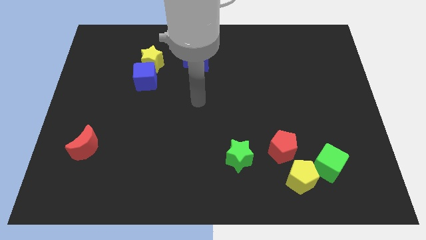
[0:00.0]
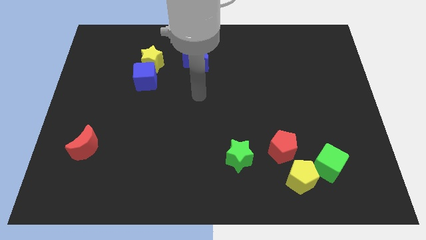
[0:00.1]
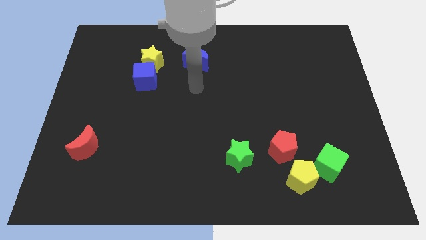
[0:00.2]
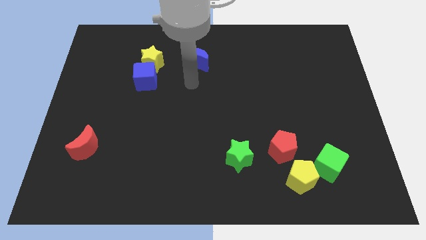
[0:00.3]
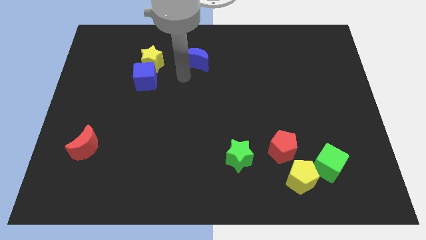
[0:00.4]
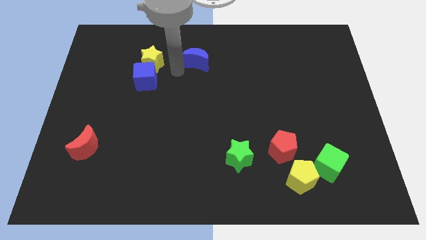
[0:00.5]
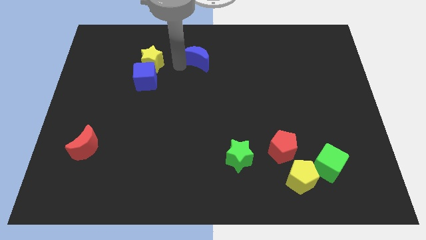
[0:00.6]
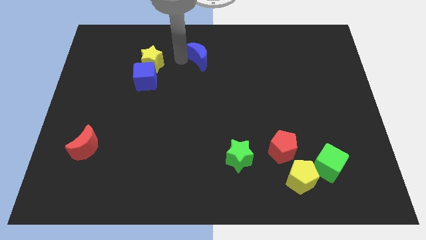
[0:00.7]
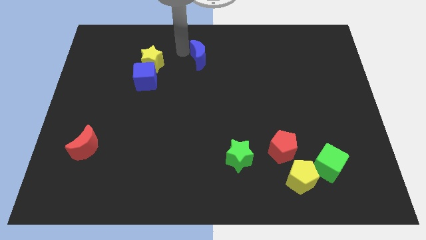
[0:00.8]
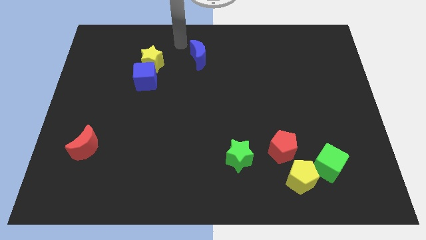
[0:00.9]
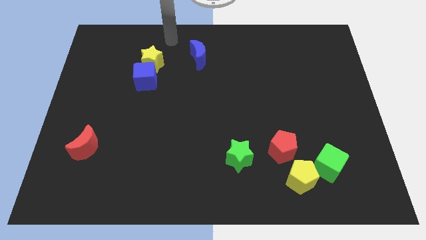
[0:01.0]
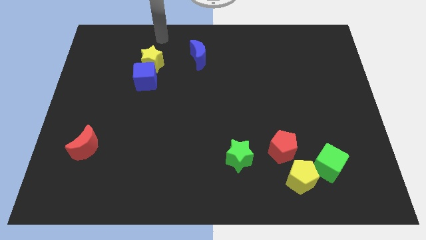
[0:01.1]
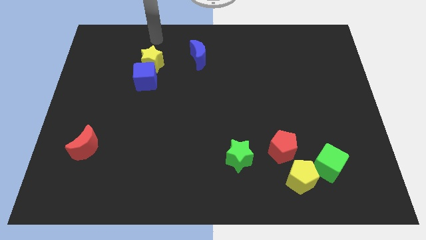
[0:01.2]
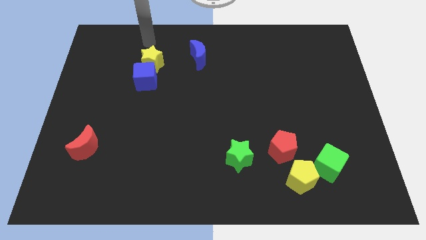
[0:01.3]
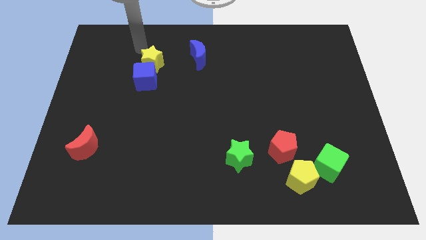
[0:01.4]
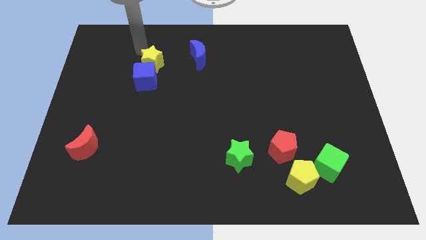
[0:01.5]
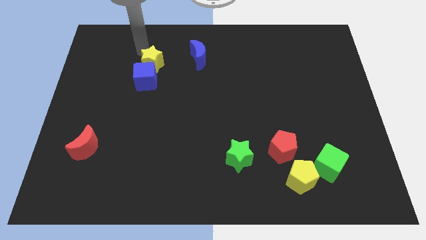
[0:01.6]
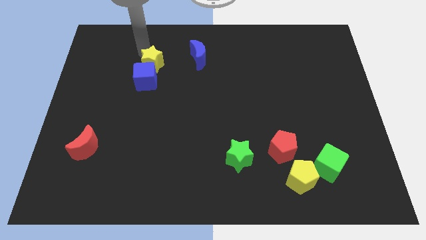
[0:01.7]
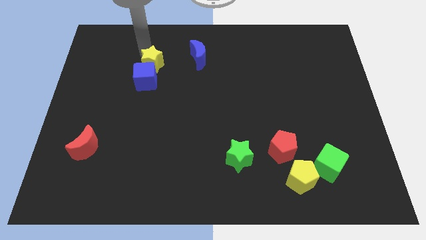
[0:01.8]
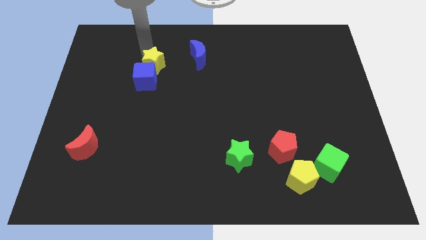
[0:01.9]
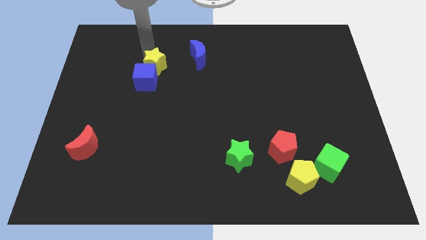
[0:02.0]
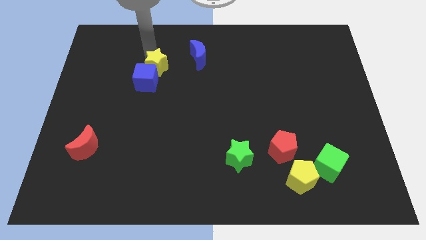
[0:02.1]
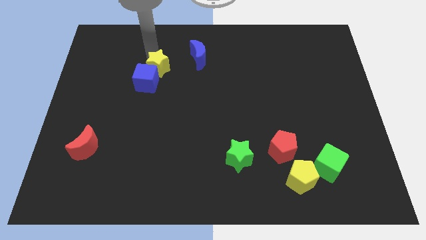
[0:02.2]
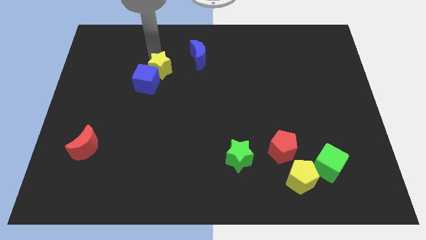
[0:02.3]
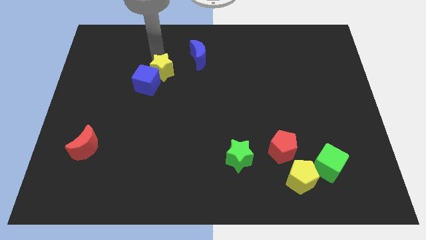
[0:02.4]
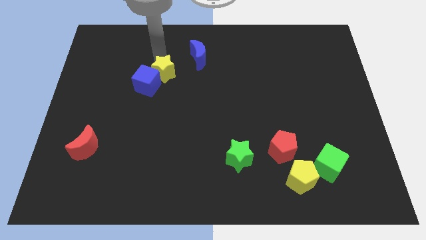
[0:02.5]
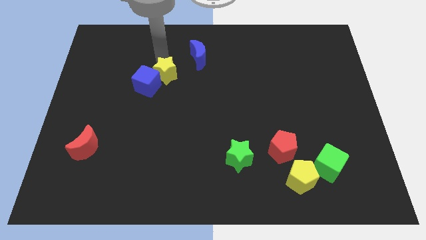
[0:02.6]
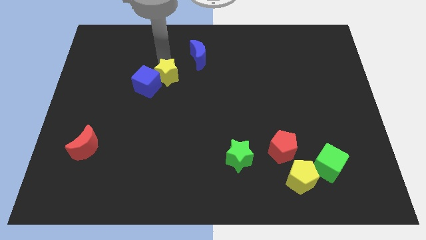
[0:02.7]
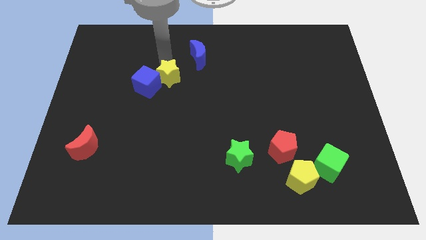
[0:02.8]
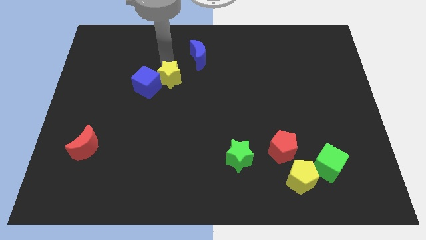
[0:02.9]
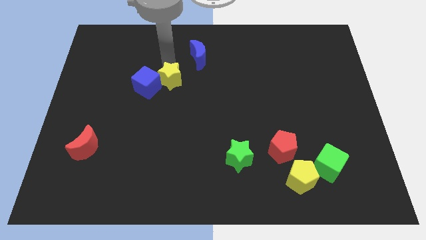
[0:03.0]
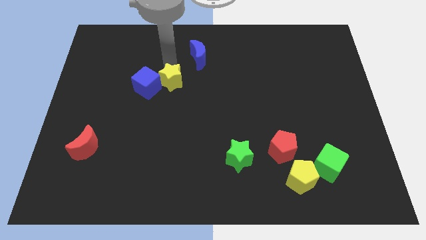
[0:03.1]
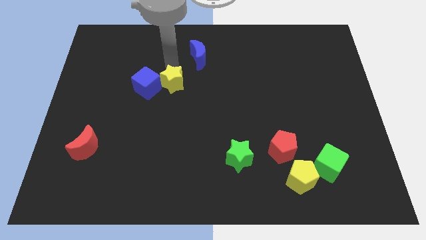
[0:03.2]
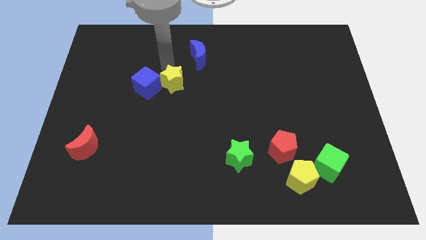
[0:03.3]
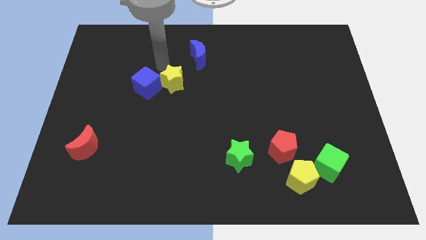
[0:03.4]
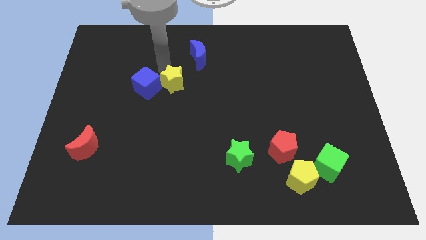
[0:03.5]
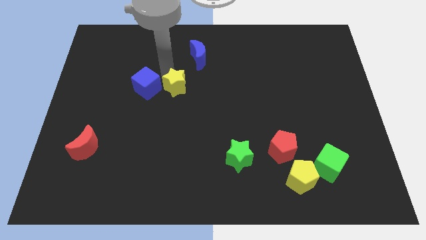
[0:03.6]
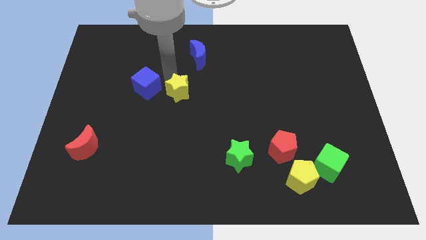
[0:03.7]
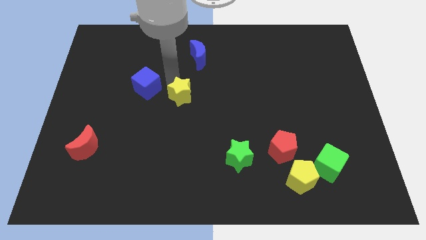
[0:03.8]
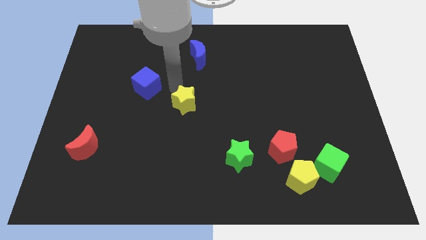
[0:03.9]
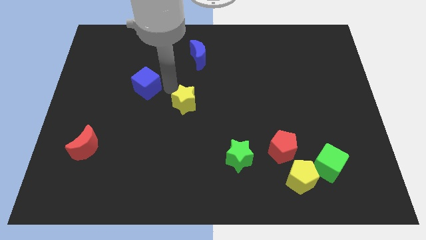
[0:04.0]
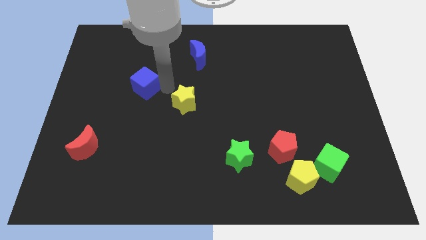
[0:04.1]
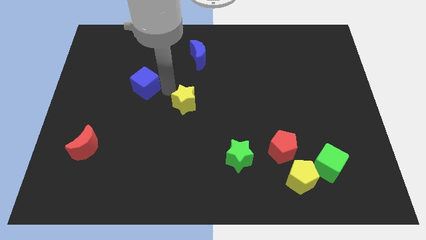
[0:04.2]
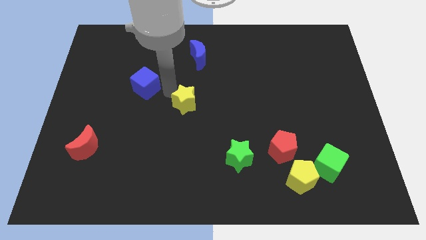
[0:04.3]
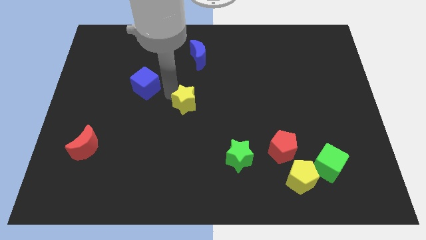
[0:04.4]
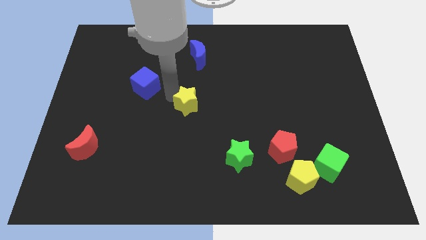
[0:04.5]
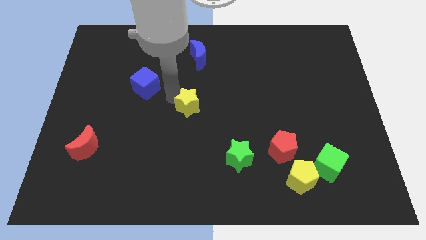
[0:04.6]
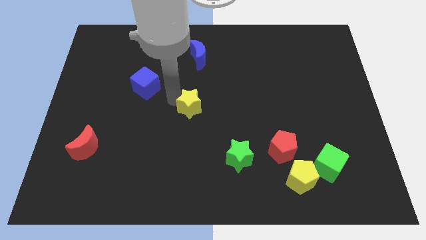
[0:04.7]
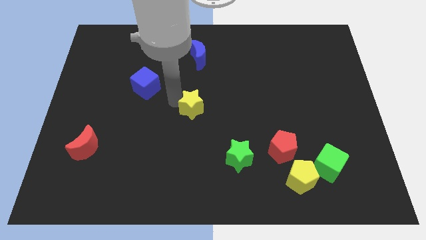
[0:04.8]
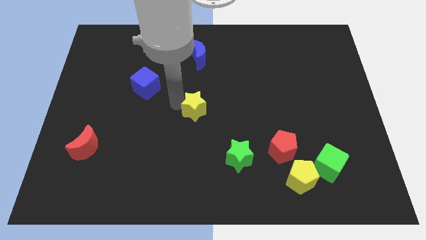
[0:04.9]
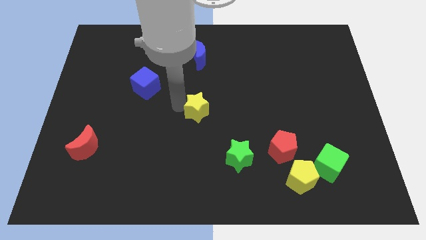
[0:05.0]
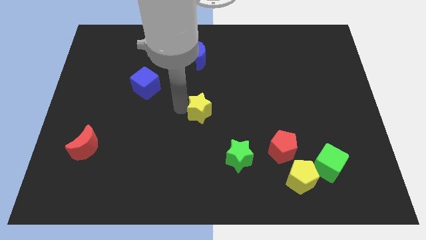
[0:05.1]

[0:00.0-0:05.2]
move the yellow star down and right diagonally

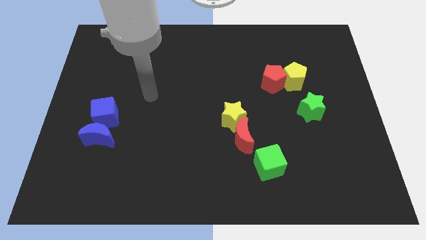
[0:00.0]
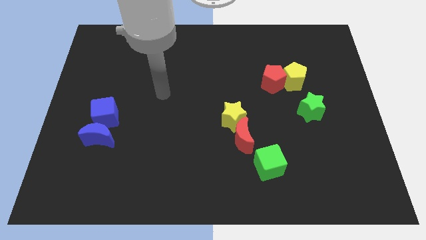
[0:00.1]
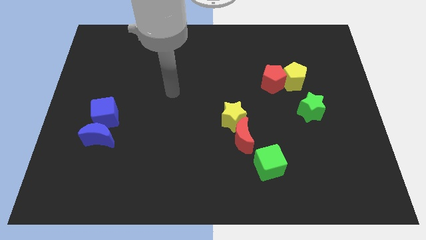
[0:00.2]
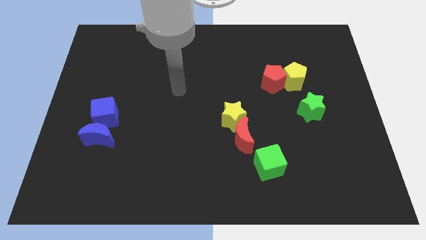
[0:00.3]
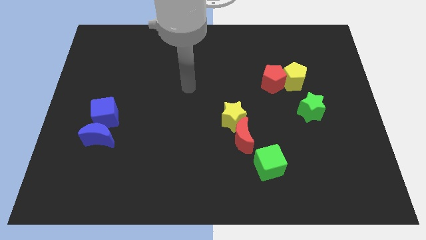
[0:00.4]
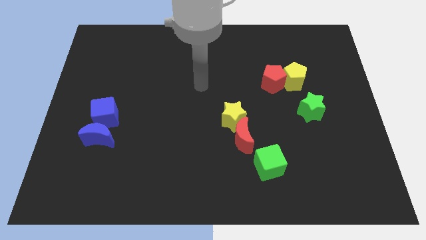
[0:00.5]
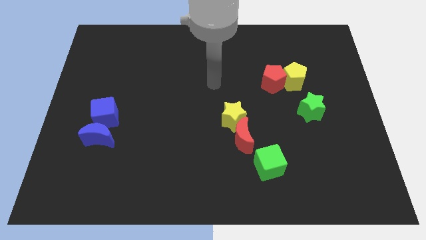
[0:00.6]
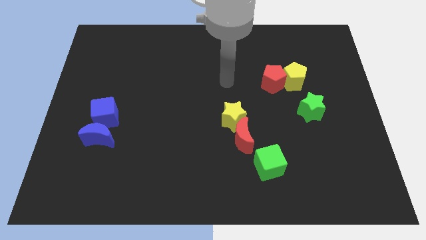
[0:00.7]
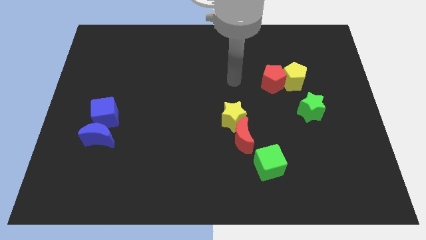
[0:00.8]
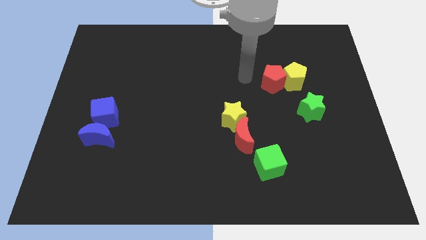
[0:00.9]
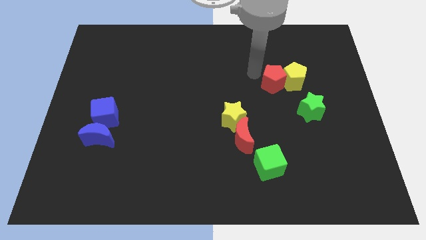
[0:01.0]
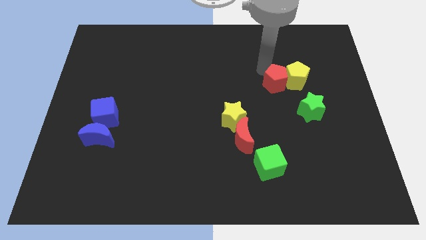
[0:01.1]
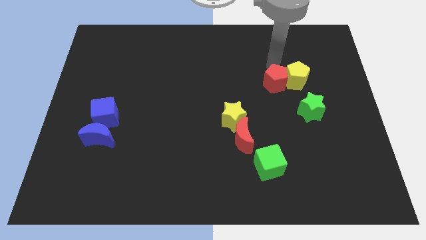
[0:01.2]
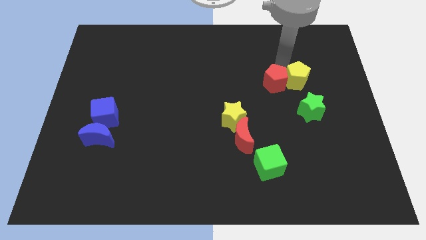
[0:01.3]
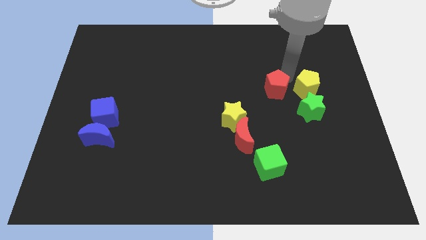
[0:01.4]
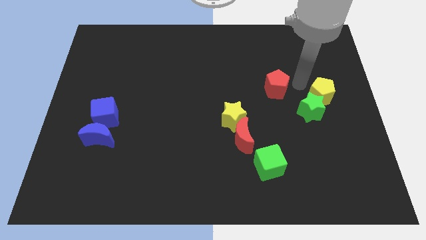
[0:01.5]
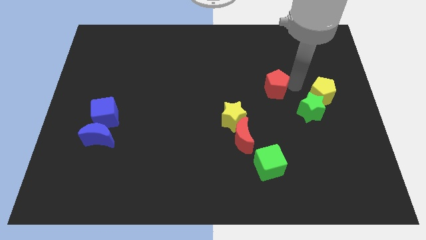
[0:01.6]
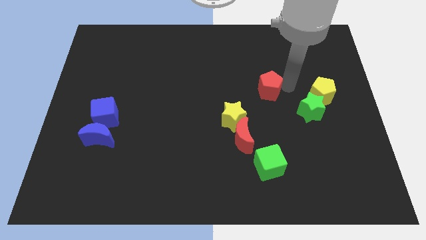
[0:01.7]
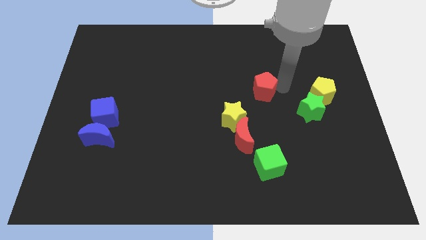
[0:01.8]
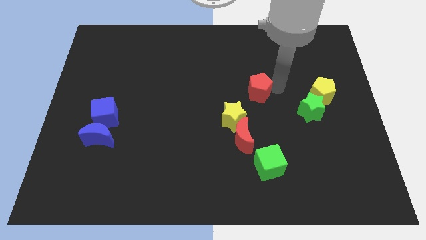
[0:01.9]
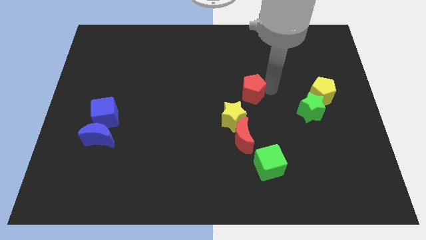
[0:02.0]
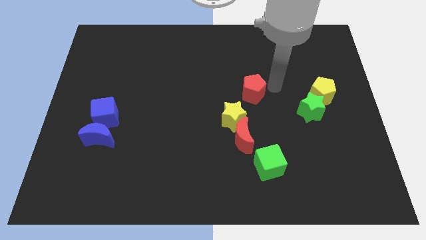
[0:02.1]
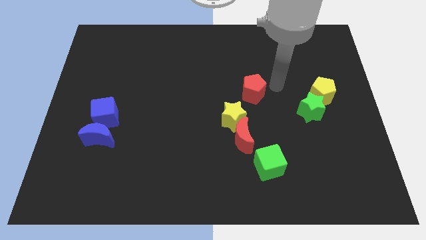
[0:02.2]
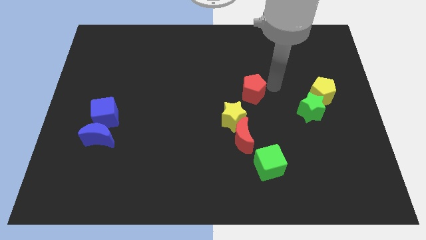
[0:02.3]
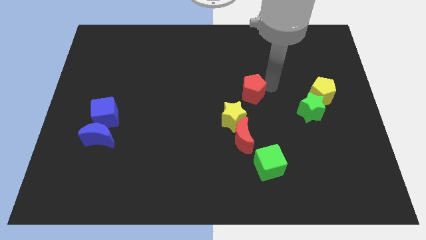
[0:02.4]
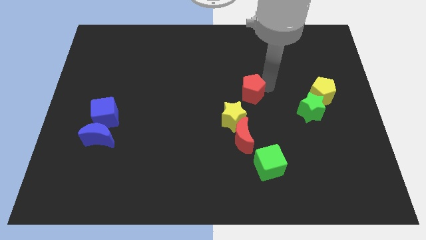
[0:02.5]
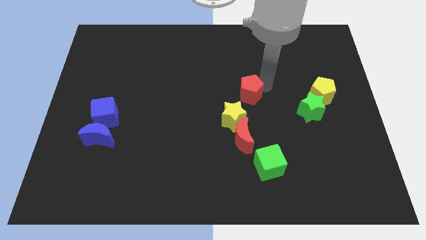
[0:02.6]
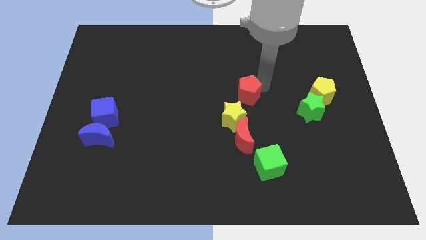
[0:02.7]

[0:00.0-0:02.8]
slide the red pentagon down and to the left diagonally slightly

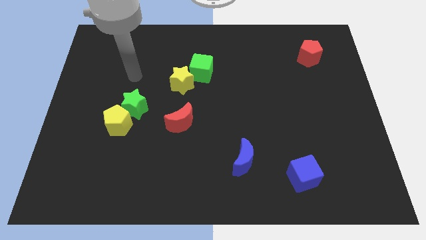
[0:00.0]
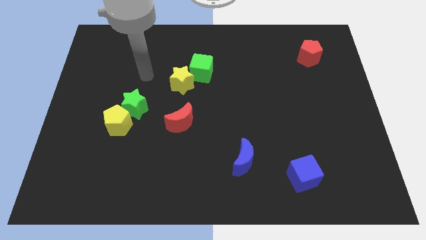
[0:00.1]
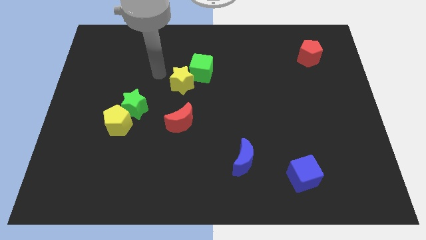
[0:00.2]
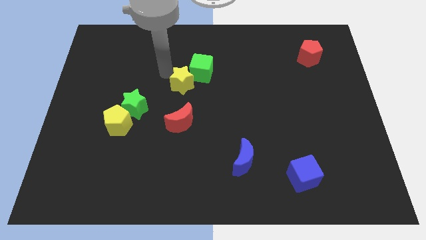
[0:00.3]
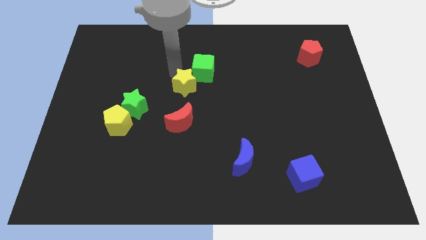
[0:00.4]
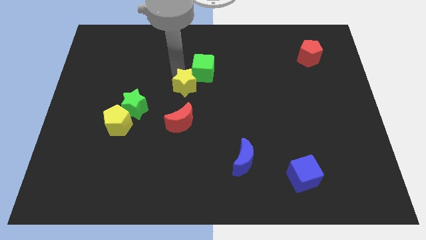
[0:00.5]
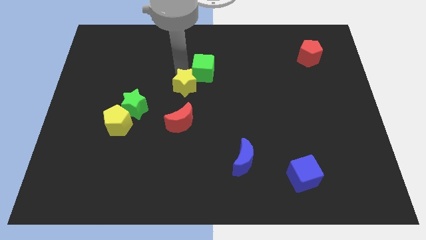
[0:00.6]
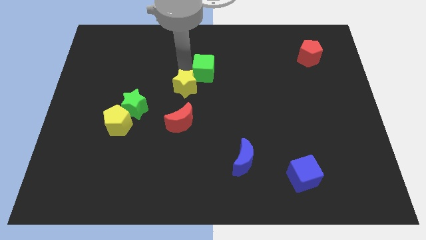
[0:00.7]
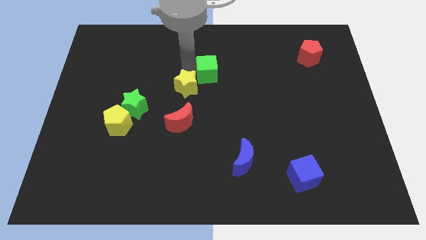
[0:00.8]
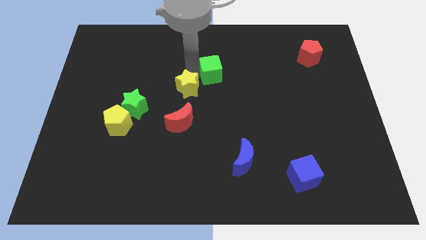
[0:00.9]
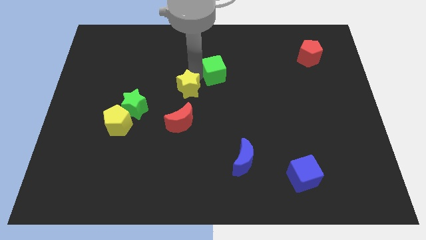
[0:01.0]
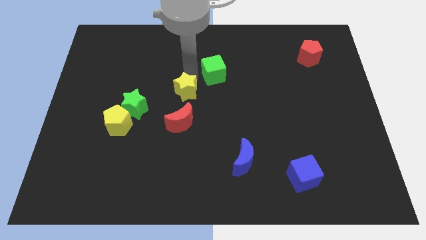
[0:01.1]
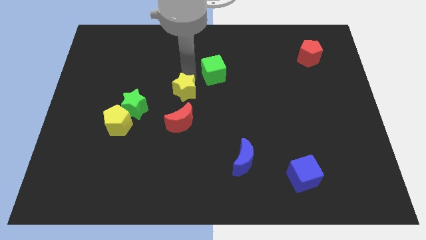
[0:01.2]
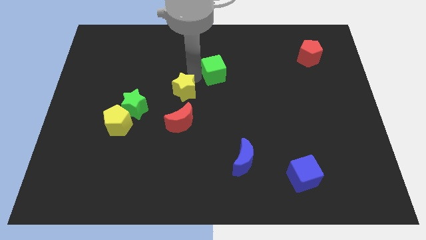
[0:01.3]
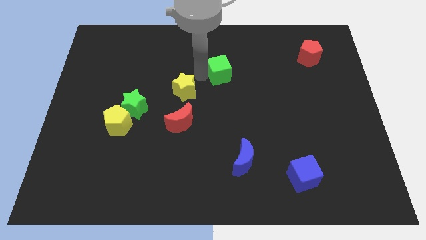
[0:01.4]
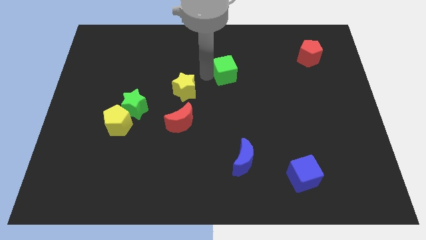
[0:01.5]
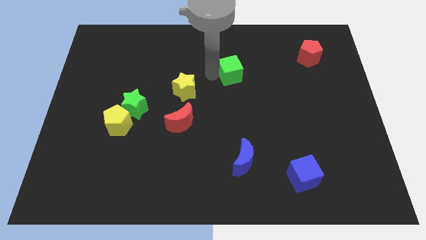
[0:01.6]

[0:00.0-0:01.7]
slightly move the green cube right
